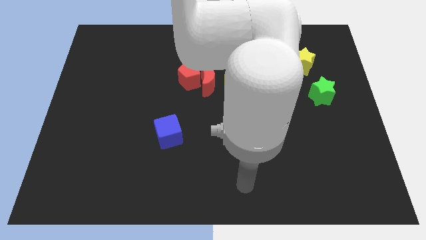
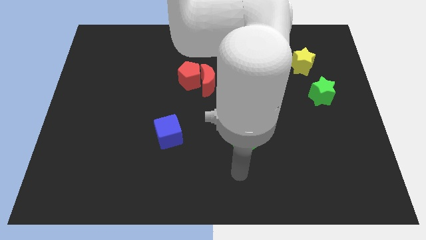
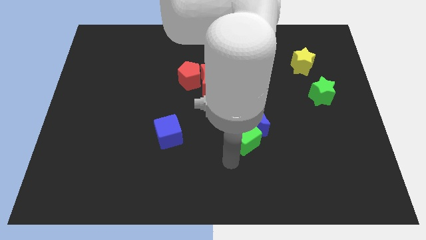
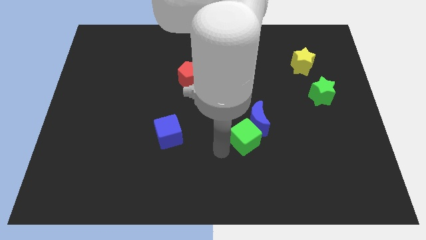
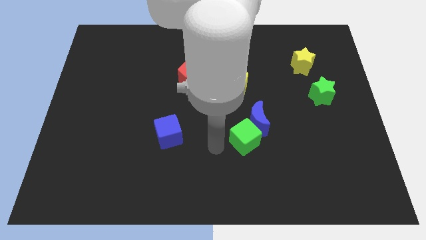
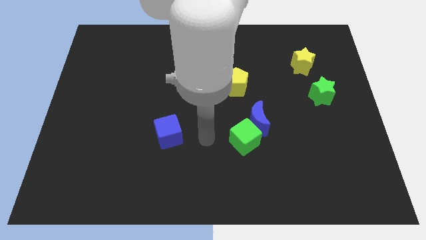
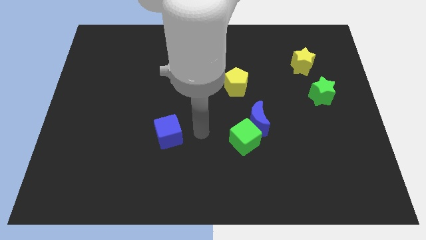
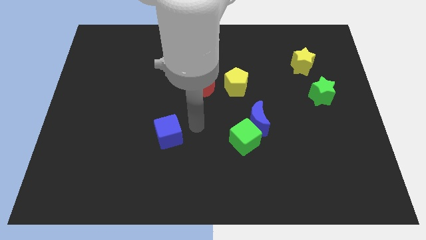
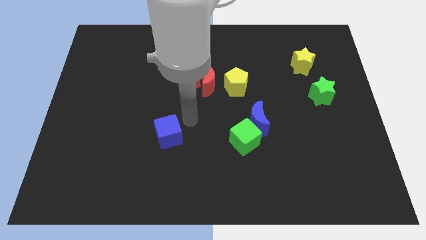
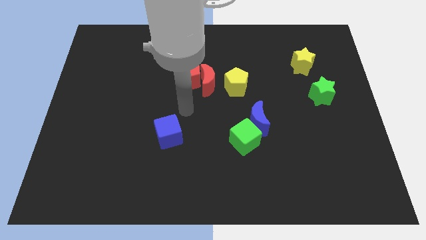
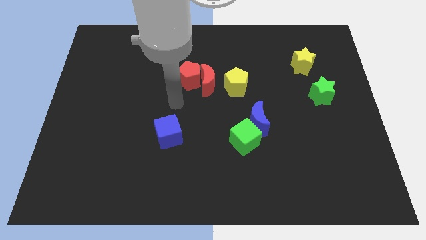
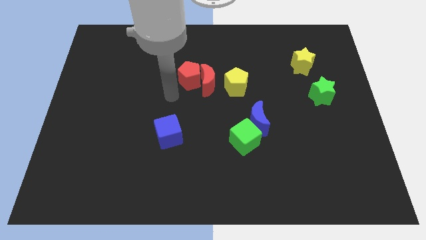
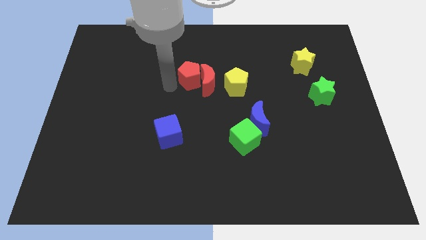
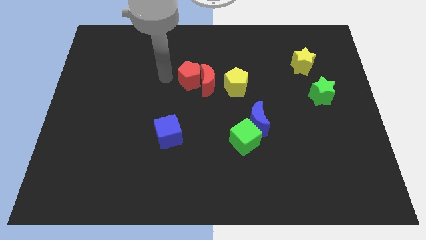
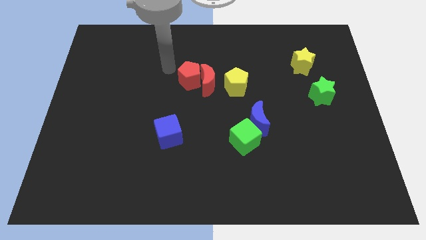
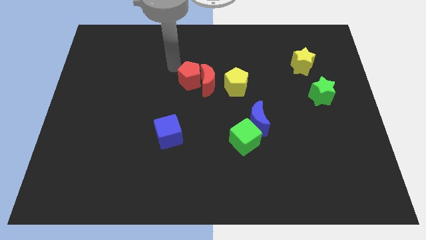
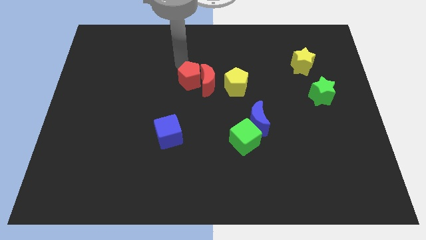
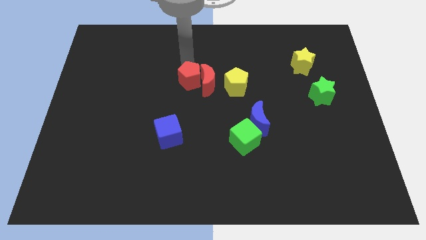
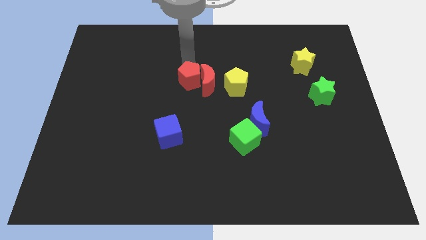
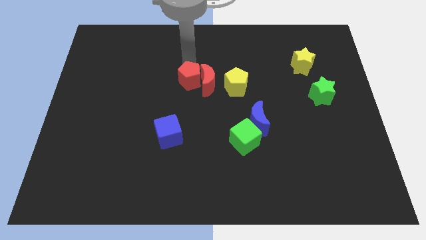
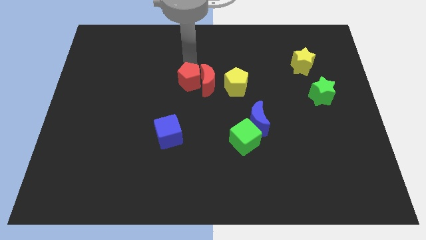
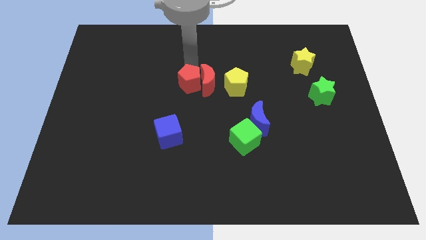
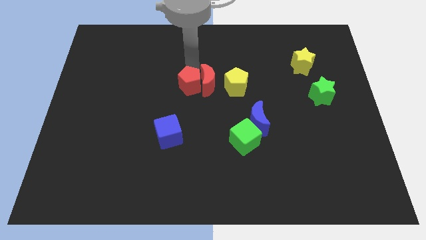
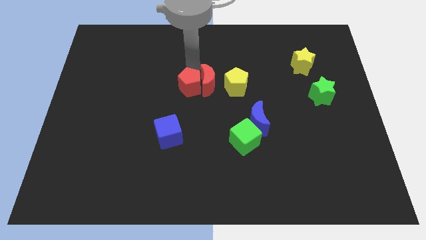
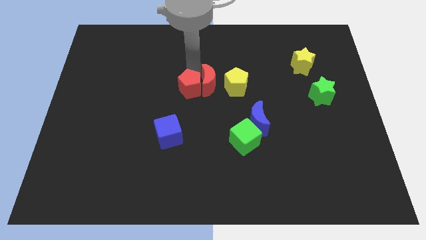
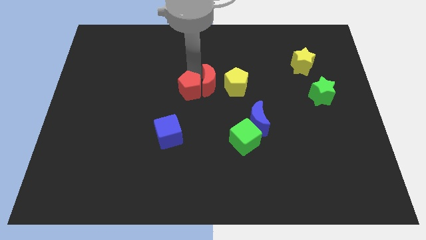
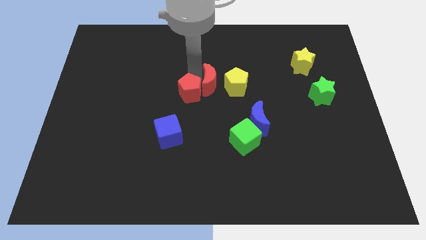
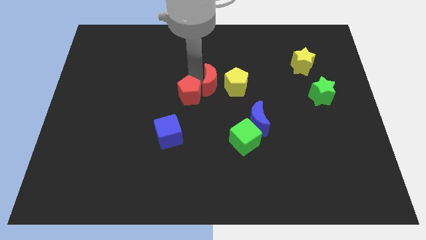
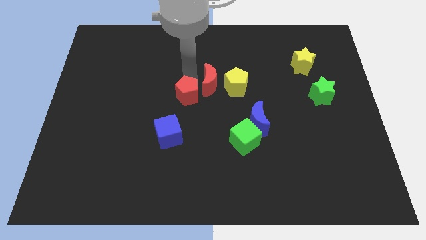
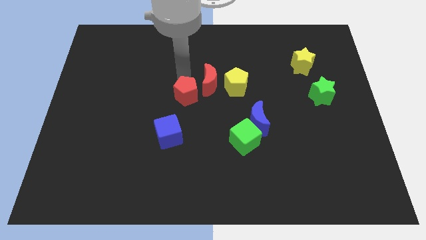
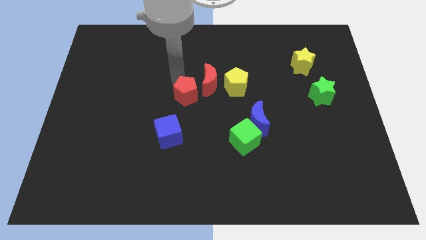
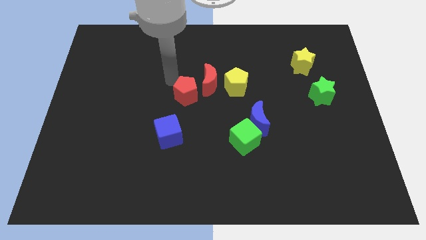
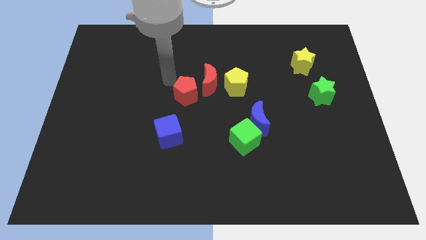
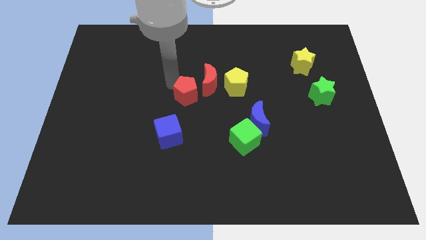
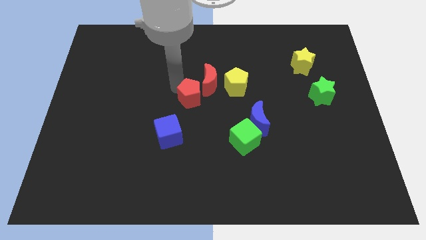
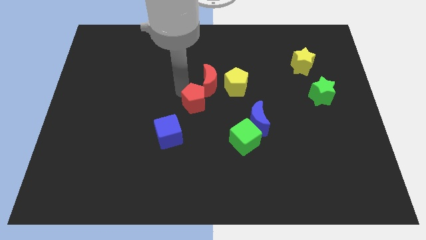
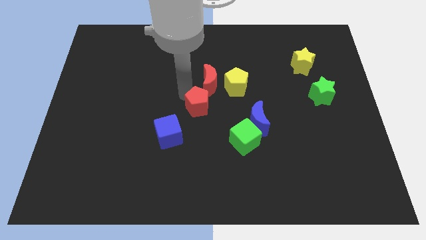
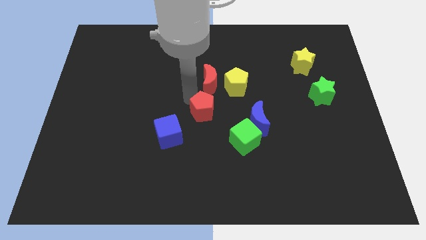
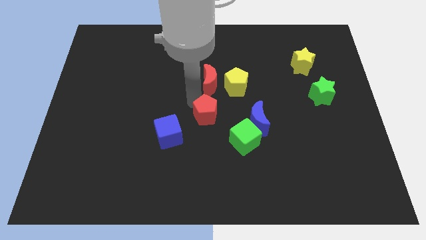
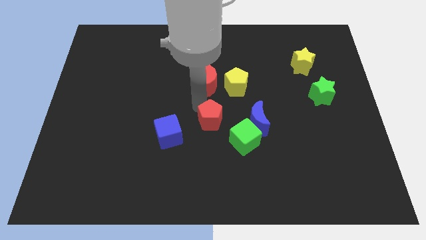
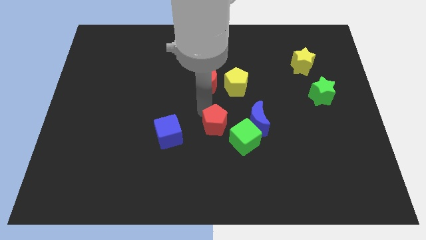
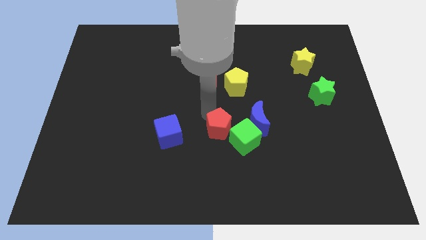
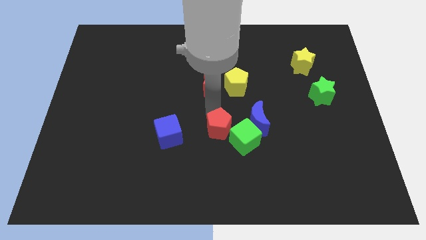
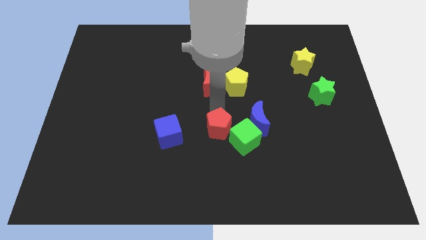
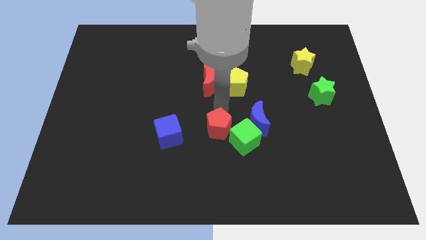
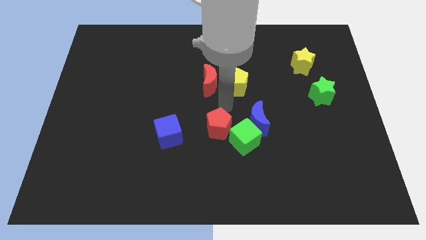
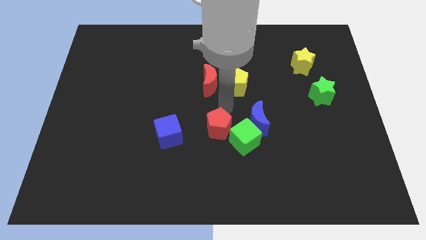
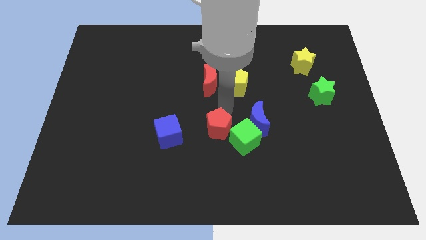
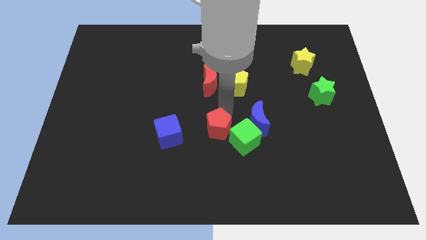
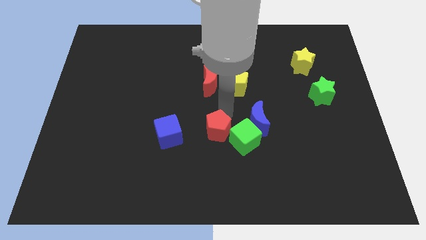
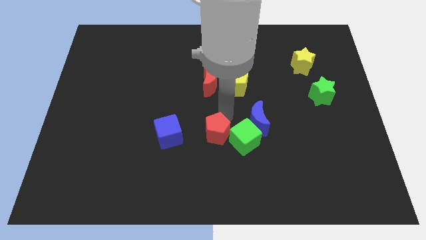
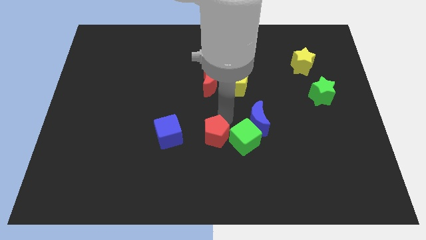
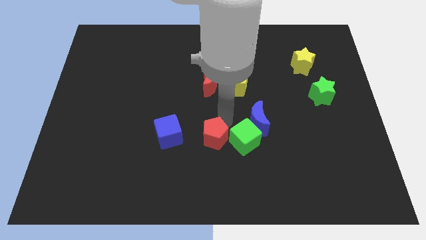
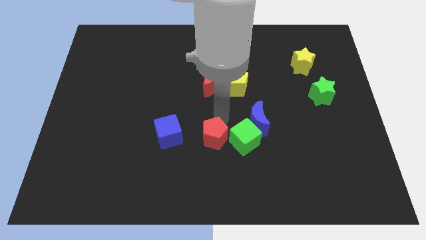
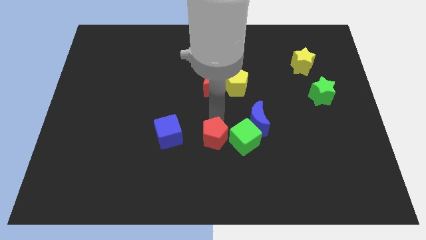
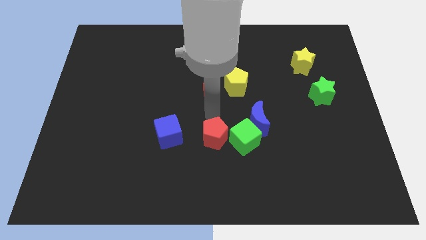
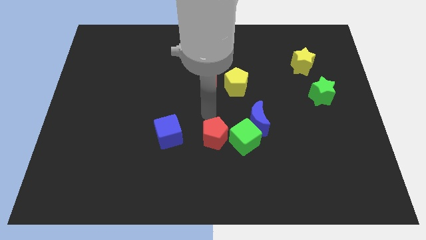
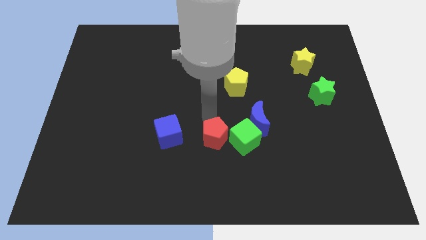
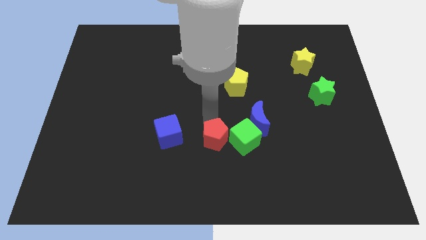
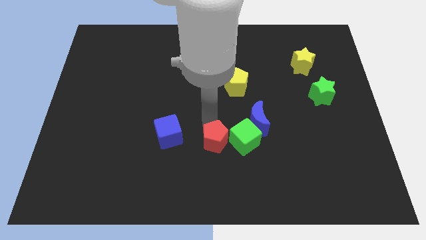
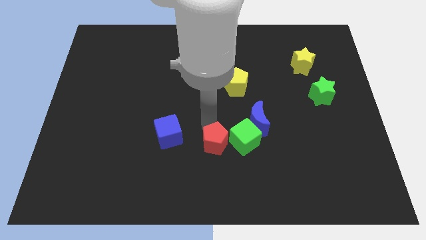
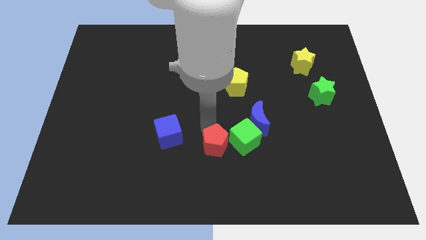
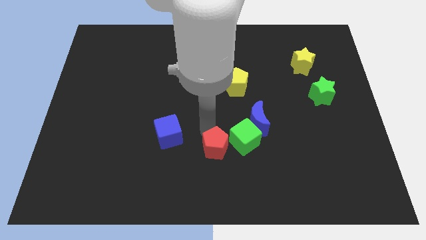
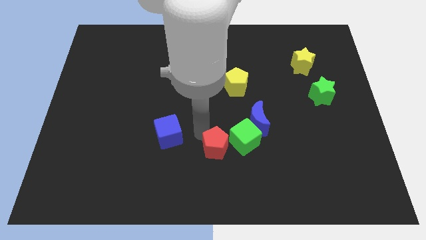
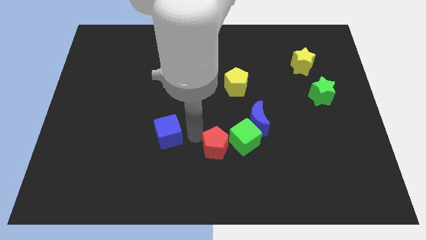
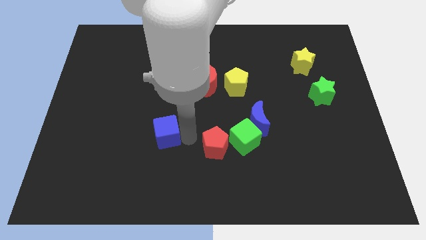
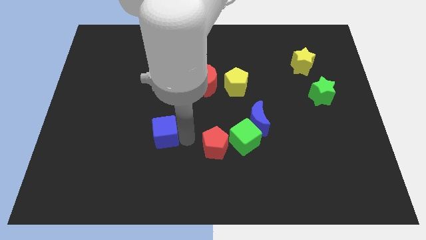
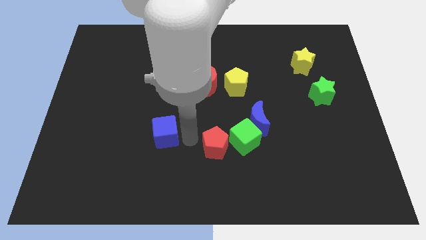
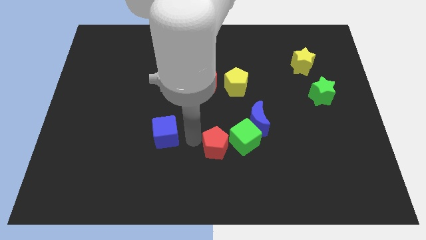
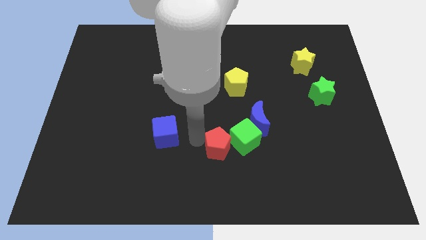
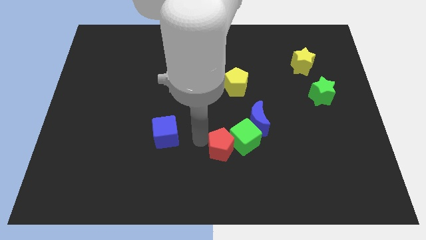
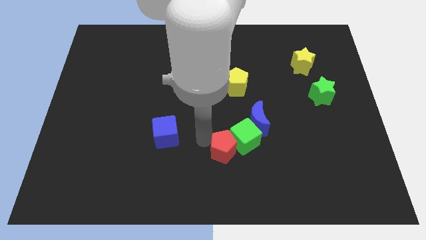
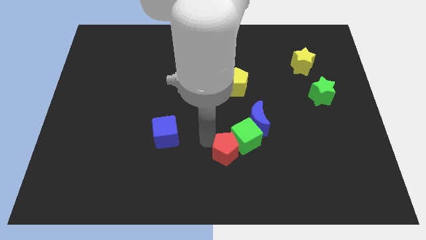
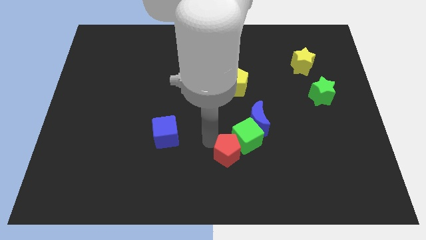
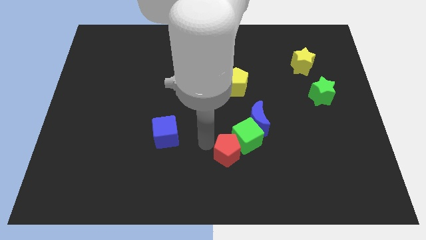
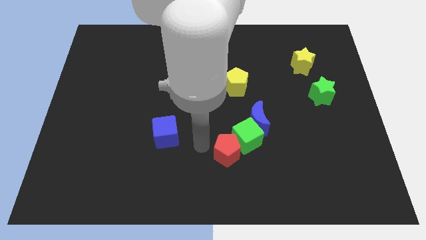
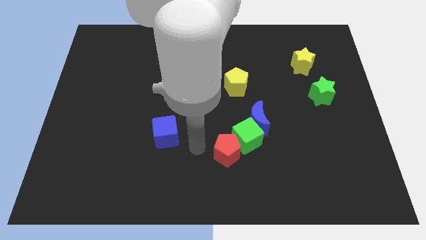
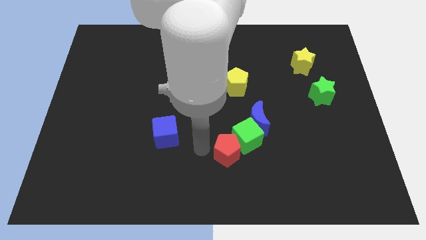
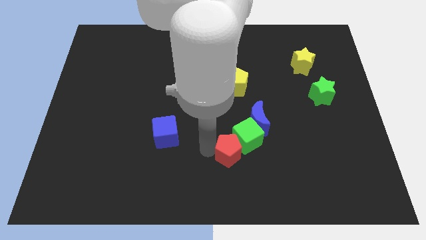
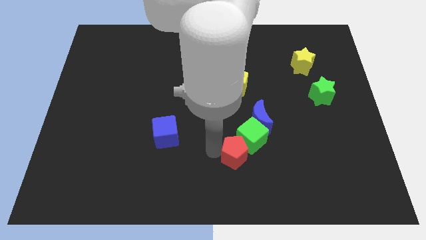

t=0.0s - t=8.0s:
move the red pentagon downwards and to the right diagonally
